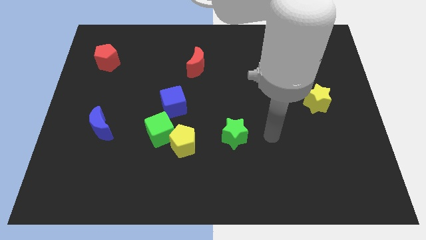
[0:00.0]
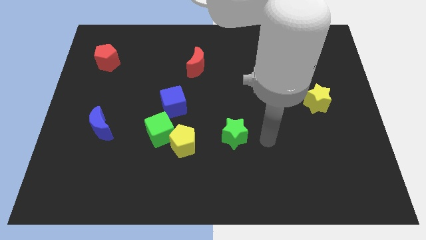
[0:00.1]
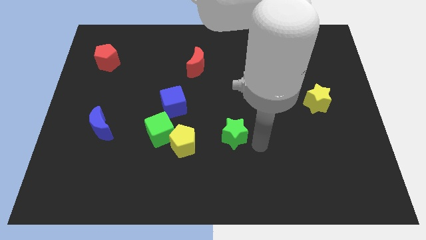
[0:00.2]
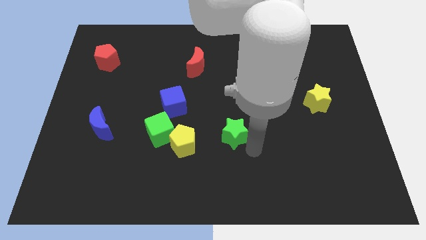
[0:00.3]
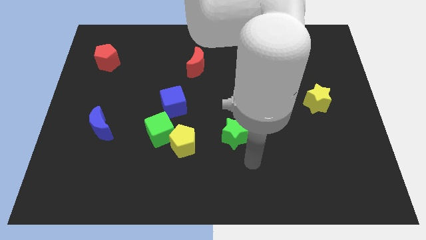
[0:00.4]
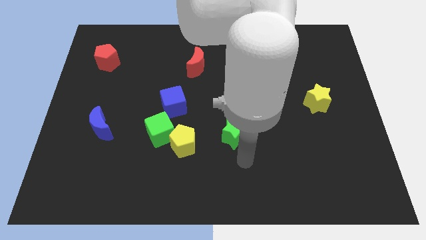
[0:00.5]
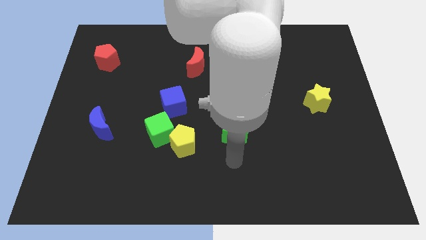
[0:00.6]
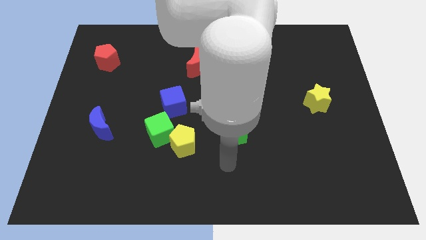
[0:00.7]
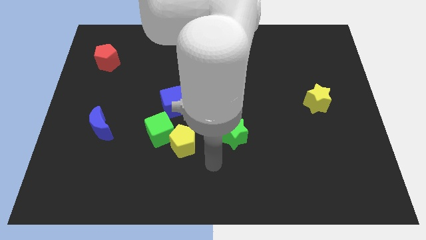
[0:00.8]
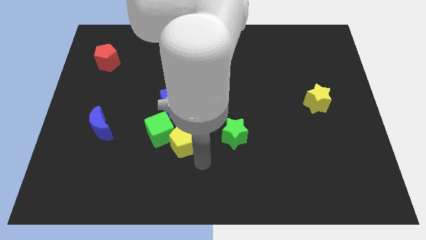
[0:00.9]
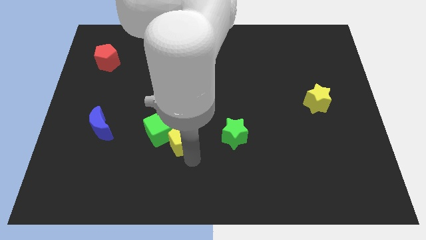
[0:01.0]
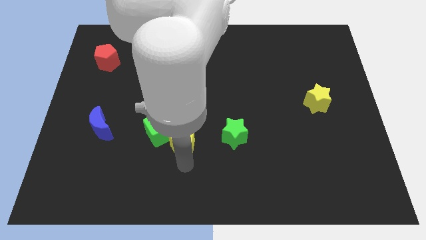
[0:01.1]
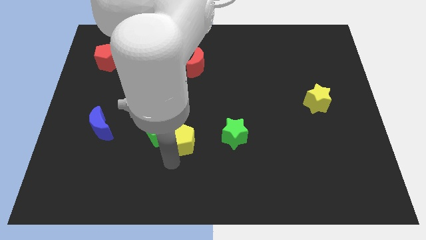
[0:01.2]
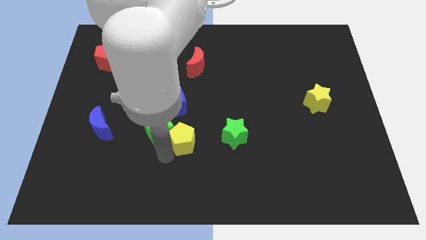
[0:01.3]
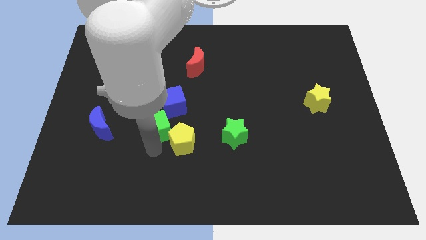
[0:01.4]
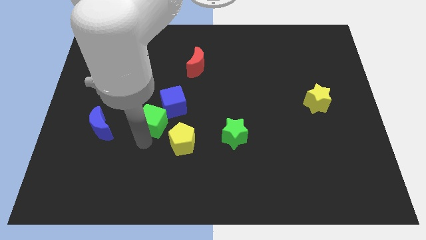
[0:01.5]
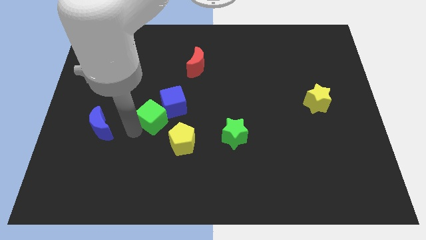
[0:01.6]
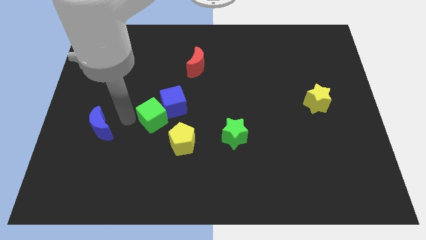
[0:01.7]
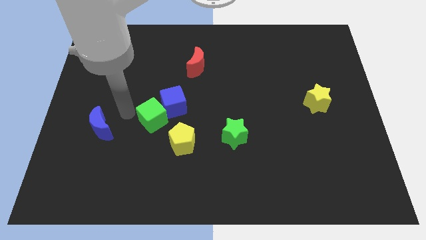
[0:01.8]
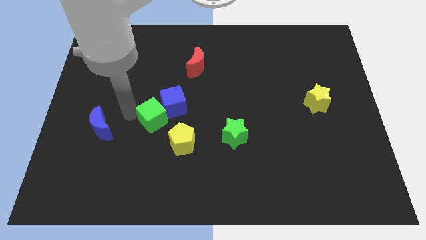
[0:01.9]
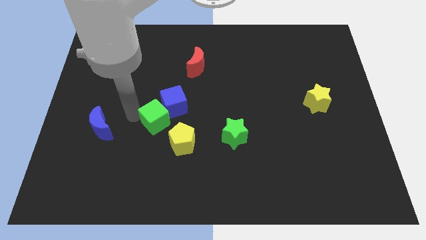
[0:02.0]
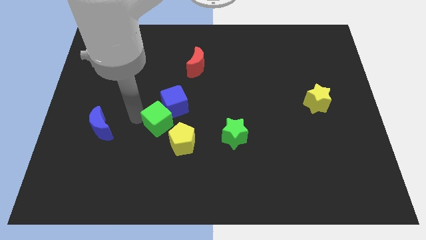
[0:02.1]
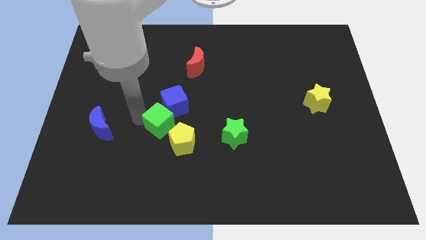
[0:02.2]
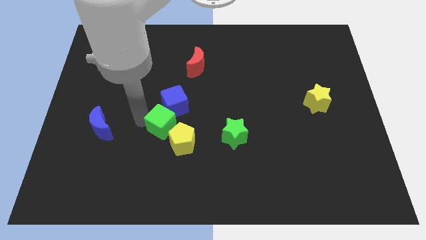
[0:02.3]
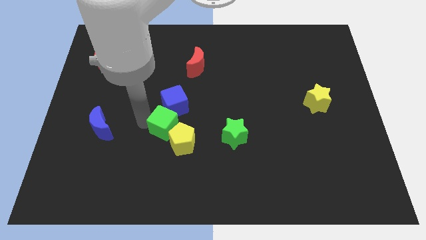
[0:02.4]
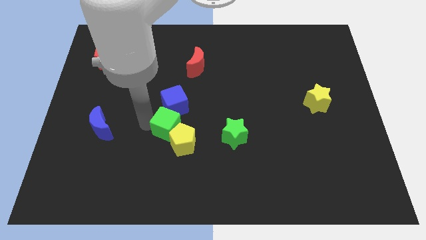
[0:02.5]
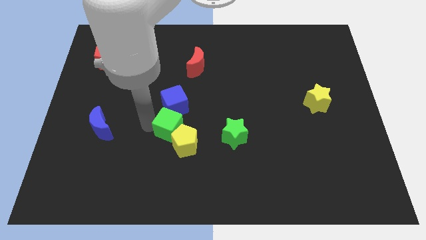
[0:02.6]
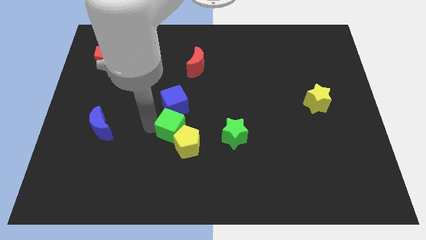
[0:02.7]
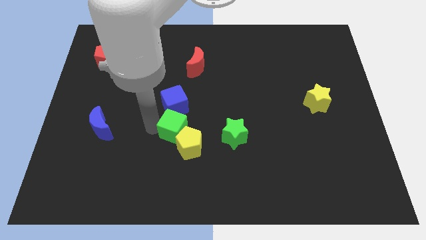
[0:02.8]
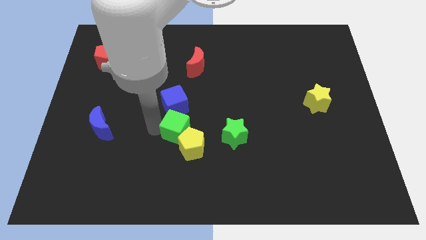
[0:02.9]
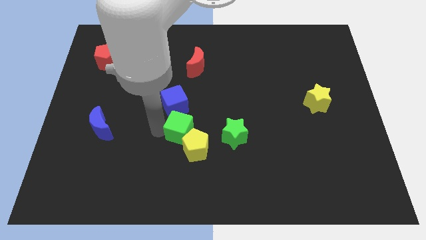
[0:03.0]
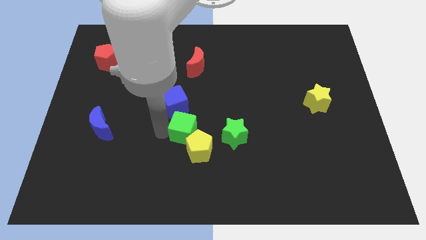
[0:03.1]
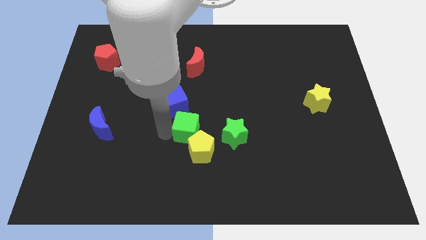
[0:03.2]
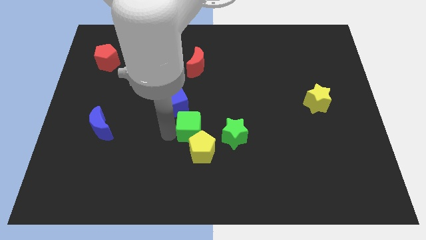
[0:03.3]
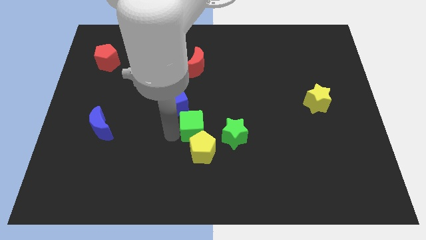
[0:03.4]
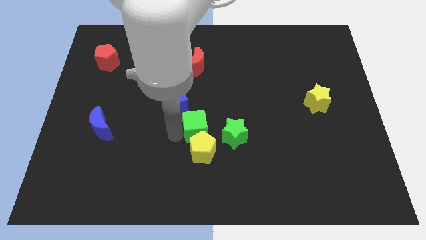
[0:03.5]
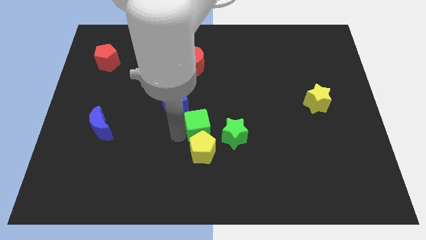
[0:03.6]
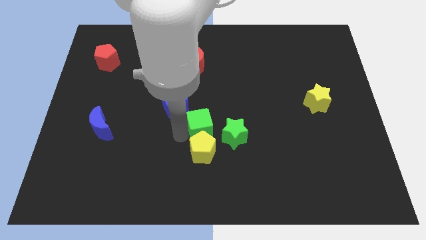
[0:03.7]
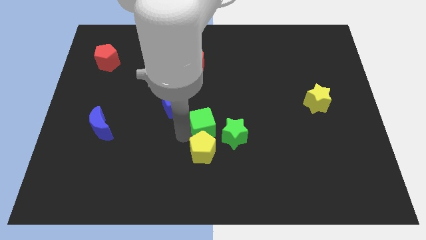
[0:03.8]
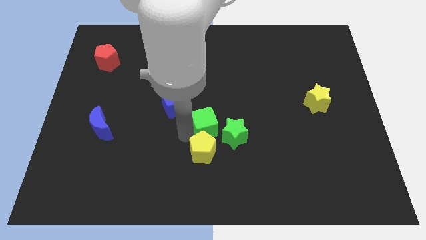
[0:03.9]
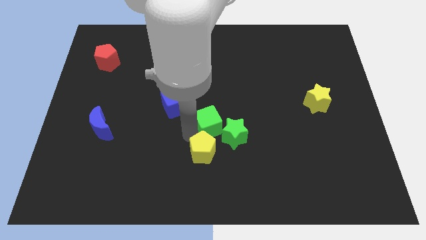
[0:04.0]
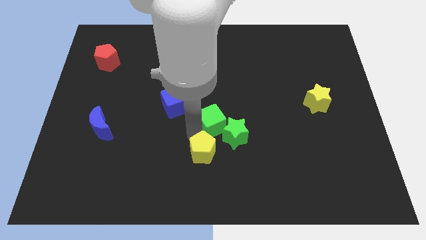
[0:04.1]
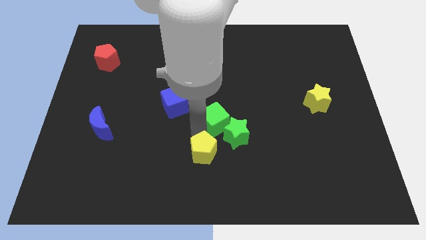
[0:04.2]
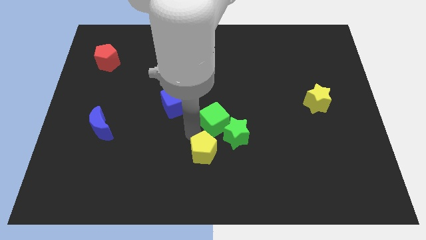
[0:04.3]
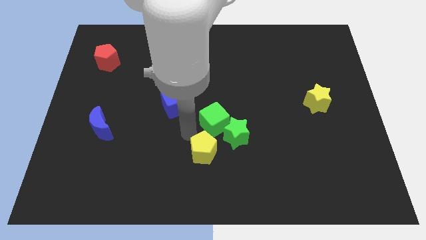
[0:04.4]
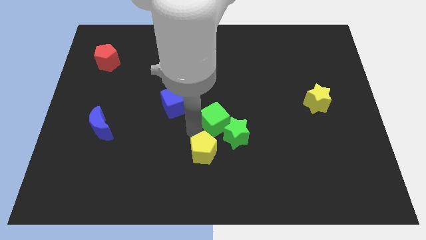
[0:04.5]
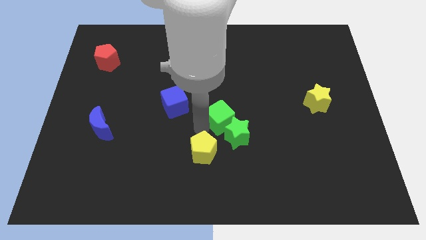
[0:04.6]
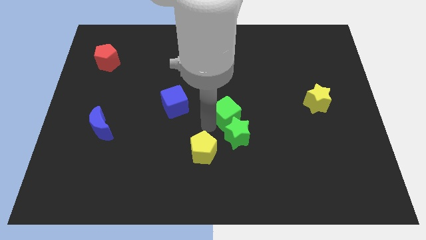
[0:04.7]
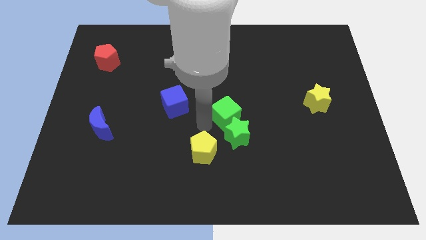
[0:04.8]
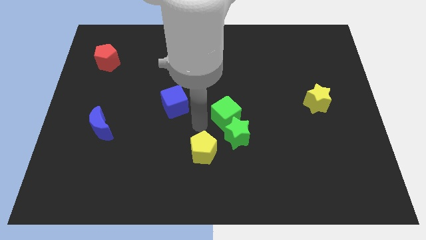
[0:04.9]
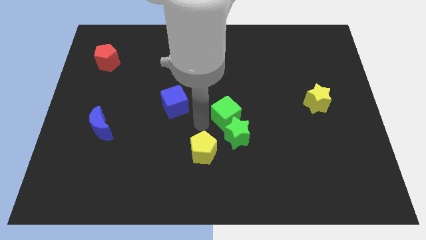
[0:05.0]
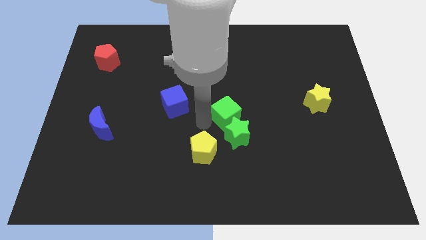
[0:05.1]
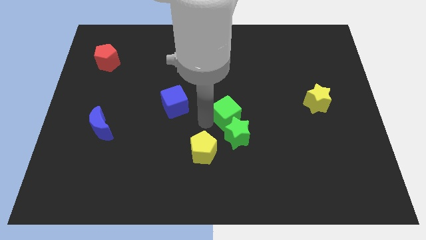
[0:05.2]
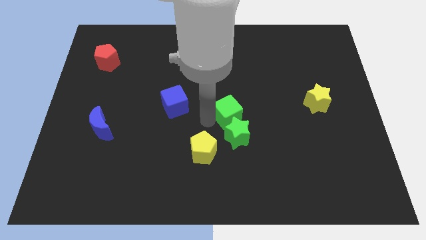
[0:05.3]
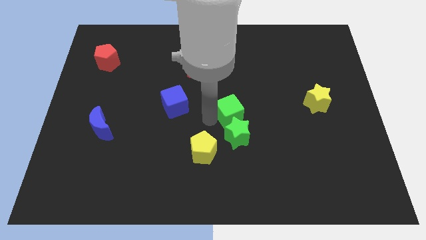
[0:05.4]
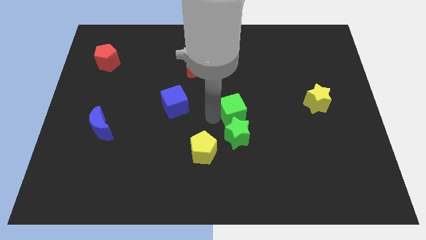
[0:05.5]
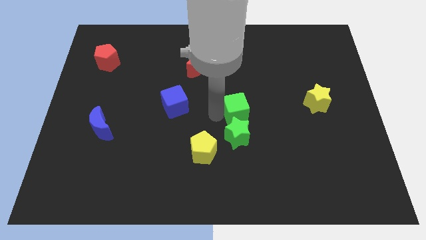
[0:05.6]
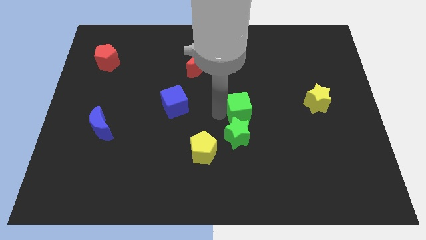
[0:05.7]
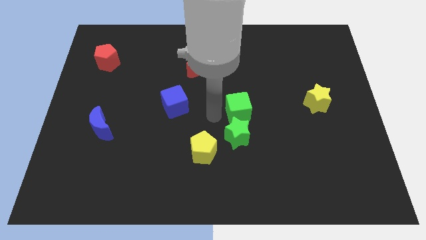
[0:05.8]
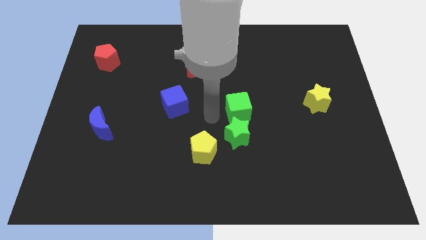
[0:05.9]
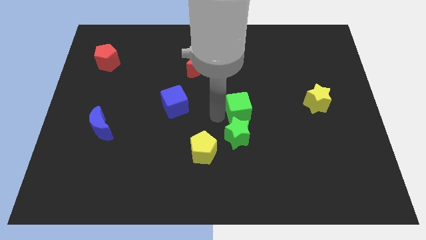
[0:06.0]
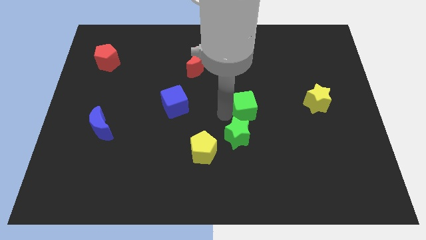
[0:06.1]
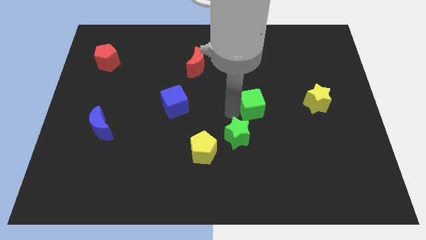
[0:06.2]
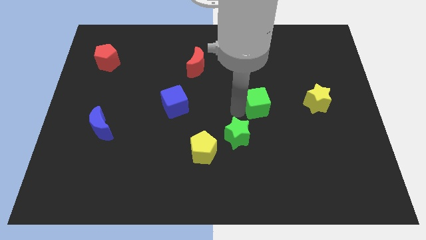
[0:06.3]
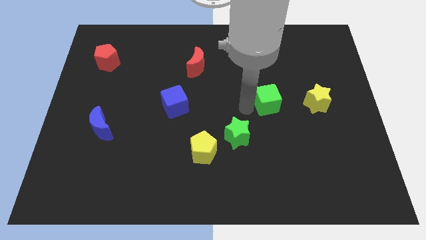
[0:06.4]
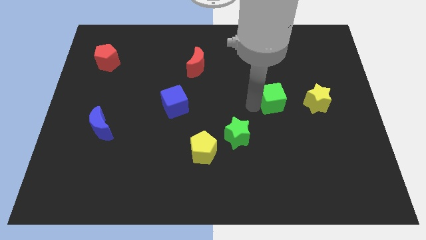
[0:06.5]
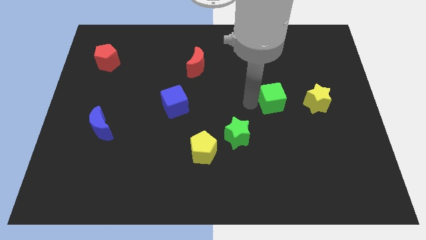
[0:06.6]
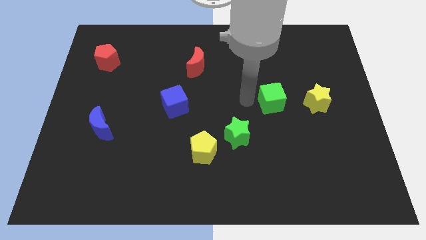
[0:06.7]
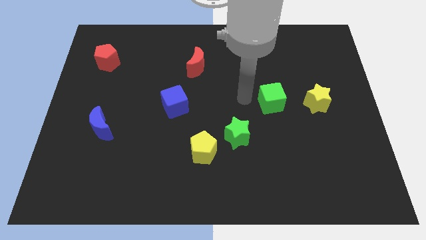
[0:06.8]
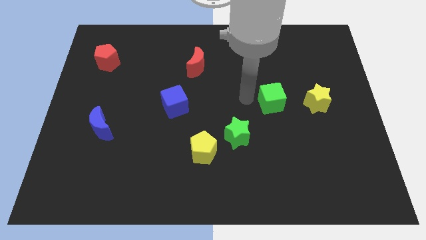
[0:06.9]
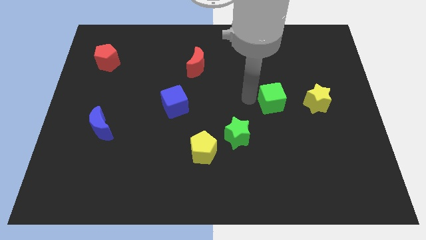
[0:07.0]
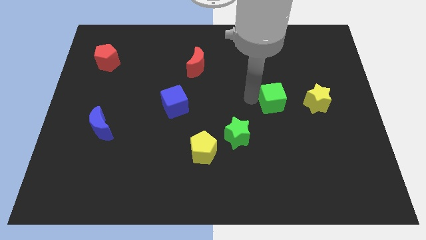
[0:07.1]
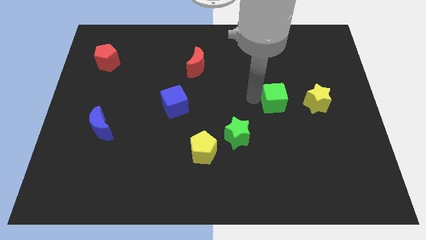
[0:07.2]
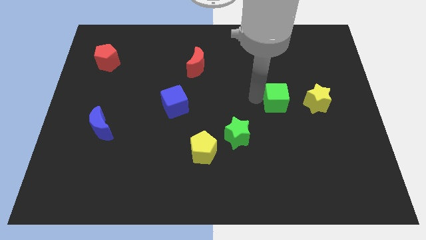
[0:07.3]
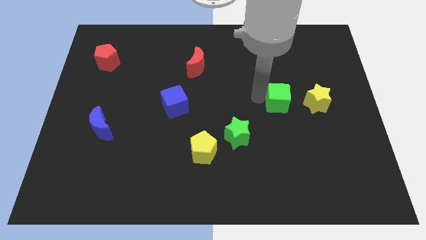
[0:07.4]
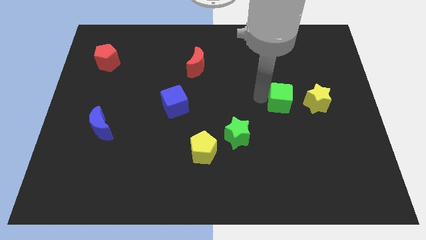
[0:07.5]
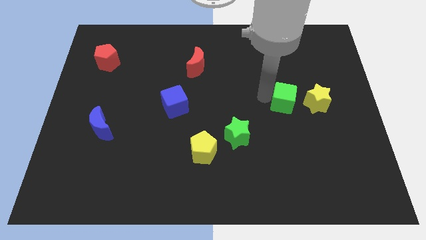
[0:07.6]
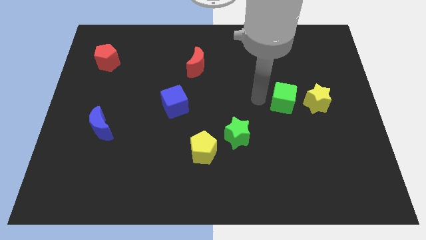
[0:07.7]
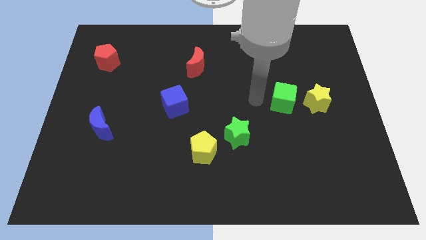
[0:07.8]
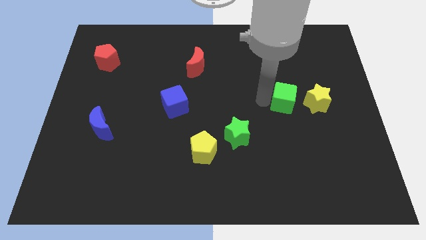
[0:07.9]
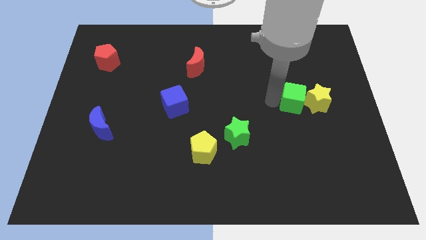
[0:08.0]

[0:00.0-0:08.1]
move the green cube close to the yellow star
